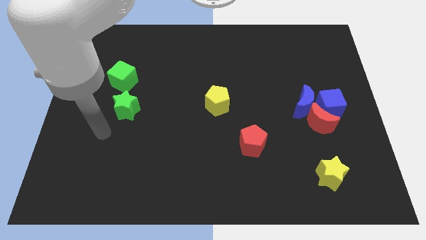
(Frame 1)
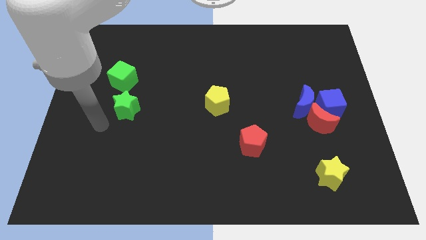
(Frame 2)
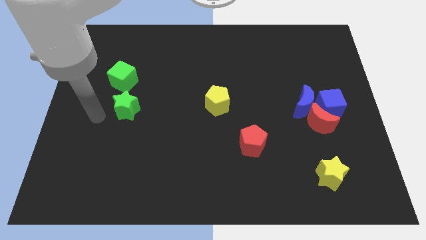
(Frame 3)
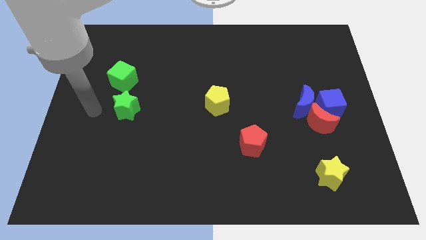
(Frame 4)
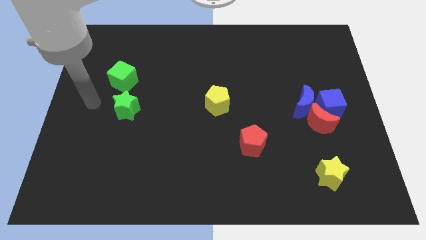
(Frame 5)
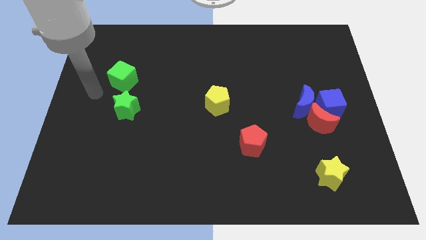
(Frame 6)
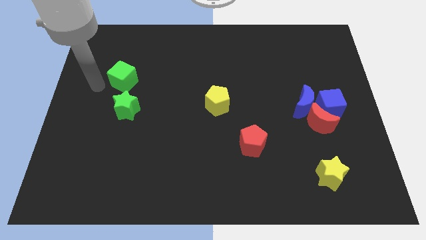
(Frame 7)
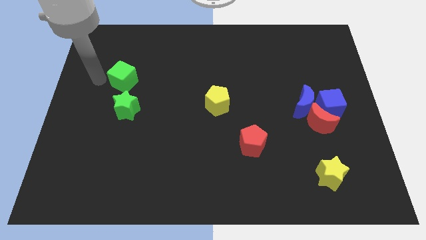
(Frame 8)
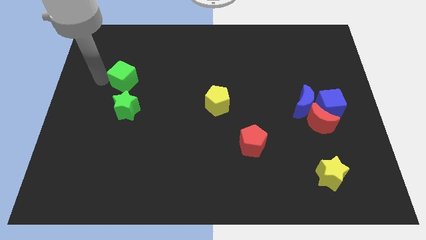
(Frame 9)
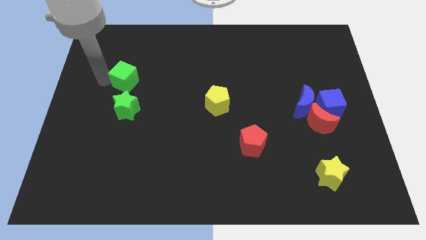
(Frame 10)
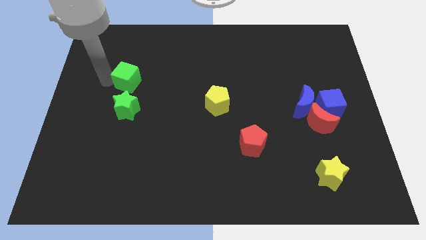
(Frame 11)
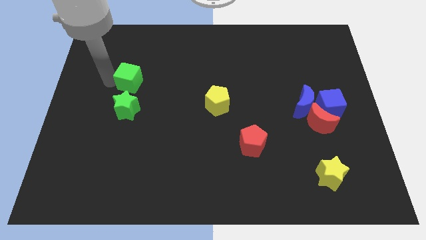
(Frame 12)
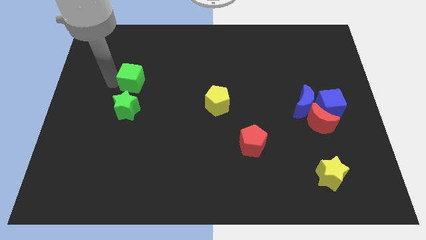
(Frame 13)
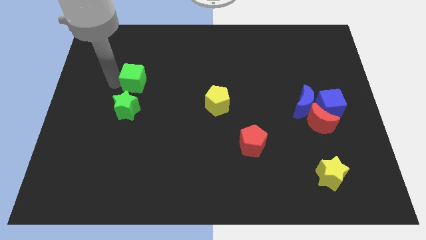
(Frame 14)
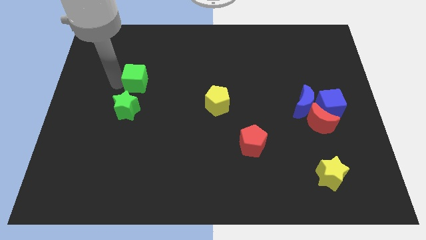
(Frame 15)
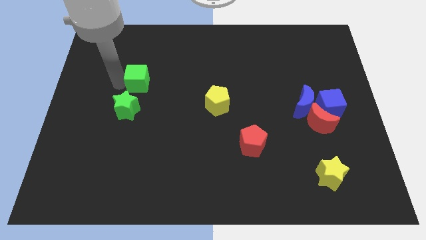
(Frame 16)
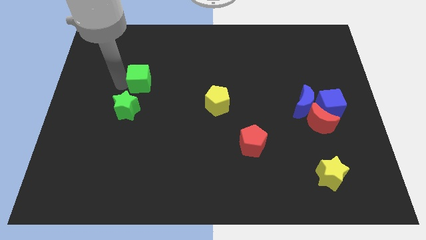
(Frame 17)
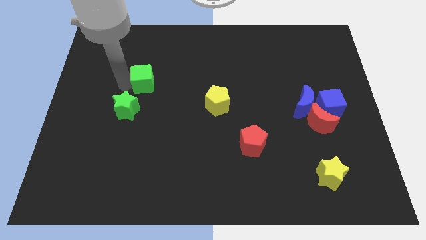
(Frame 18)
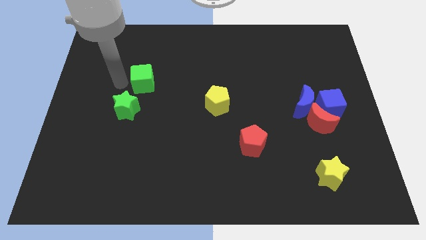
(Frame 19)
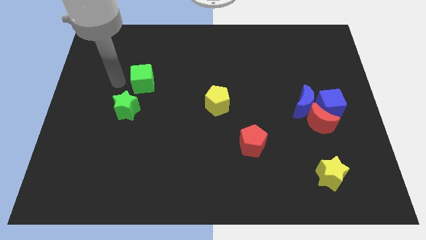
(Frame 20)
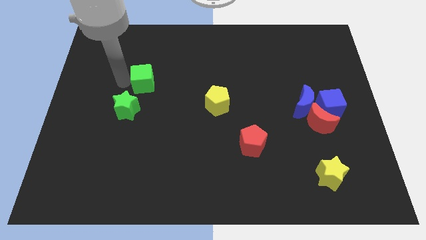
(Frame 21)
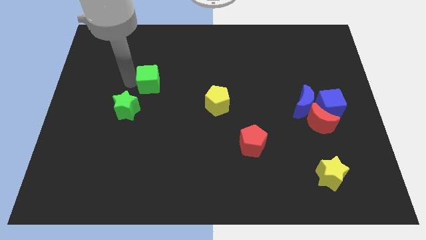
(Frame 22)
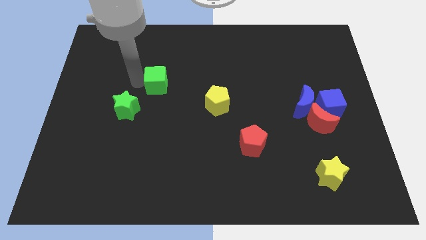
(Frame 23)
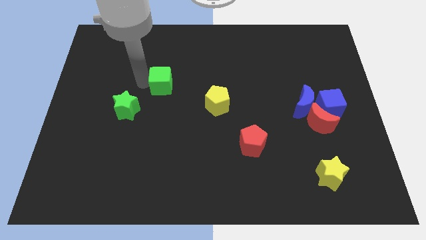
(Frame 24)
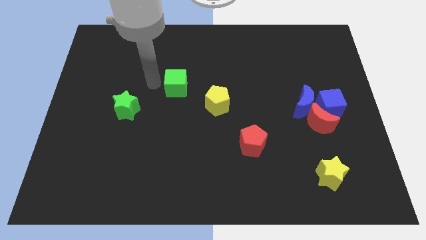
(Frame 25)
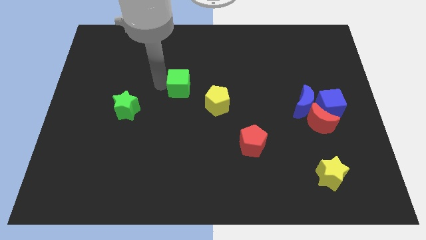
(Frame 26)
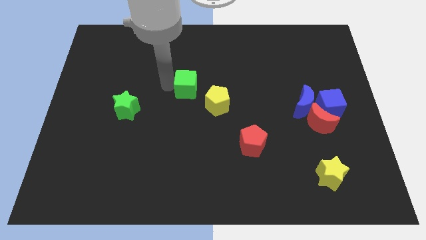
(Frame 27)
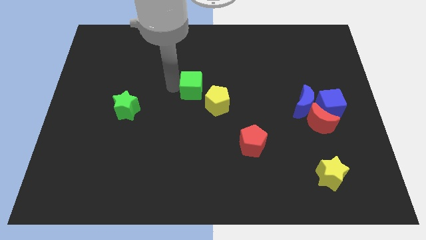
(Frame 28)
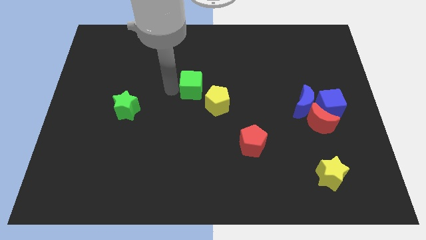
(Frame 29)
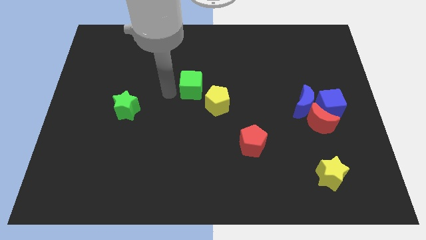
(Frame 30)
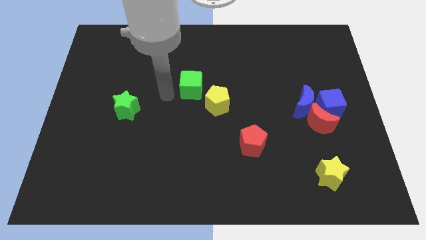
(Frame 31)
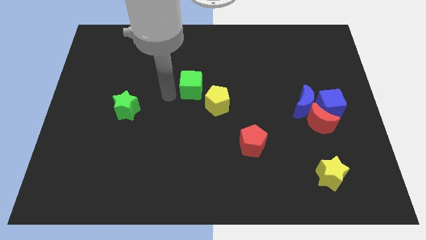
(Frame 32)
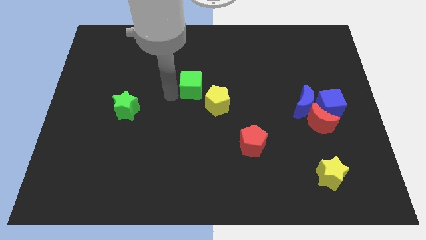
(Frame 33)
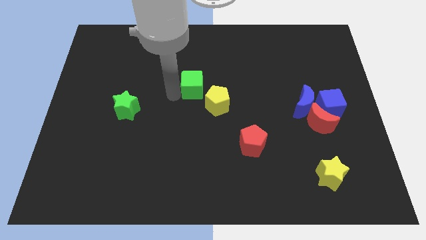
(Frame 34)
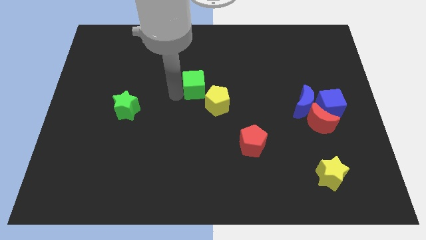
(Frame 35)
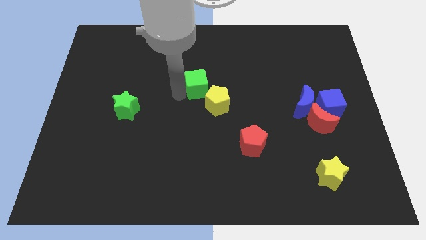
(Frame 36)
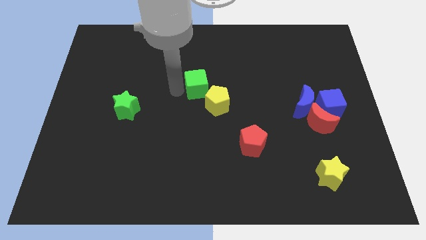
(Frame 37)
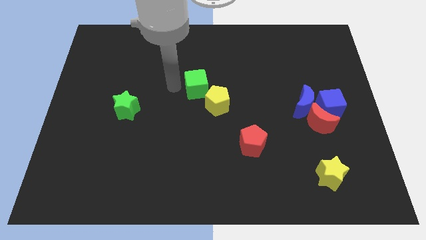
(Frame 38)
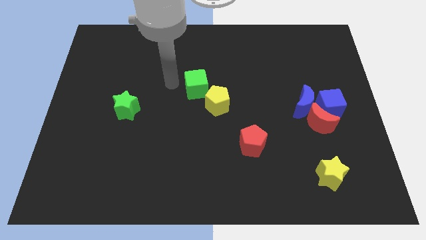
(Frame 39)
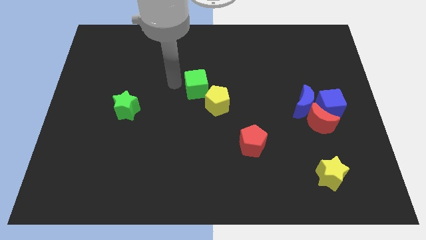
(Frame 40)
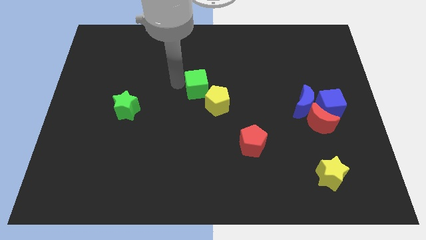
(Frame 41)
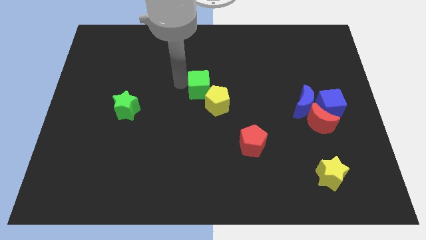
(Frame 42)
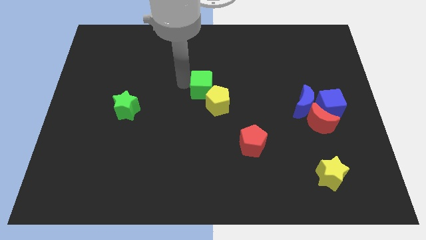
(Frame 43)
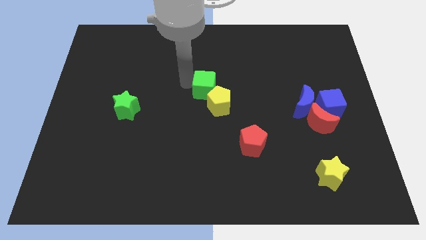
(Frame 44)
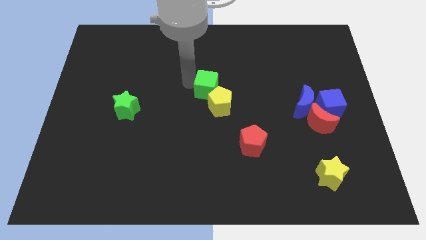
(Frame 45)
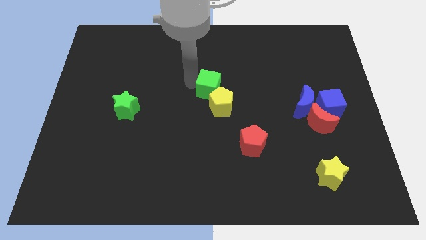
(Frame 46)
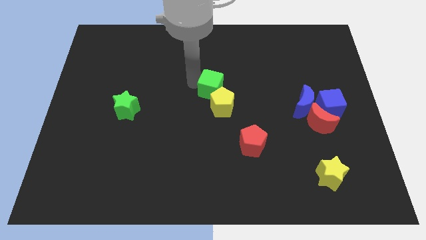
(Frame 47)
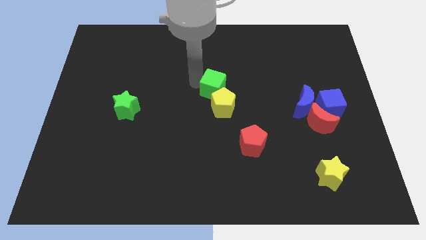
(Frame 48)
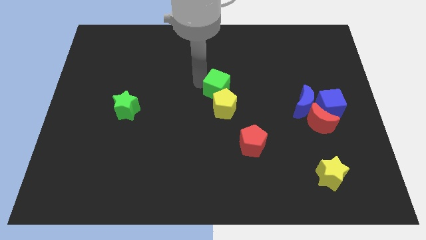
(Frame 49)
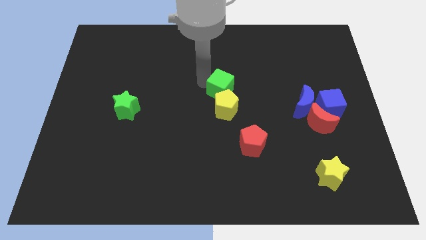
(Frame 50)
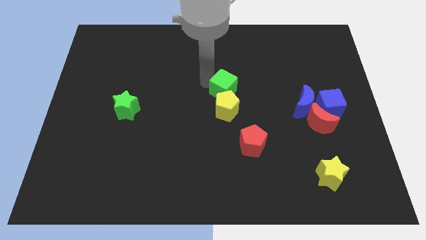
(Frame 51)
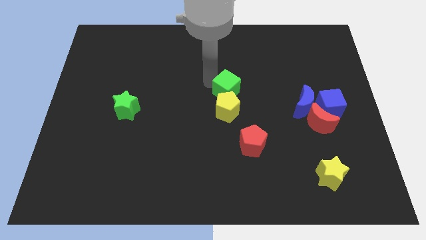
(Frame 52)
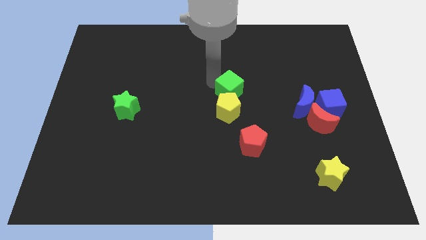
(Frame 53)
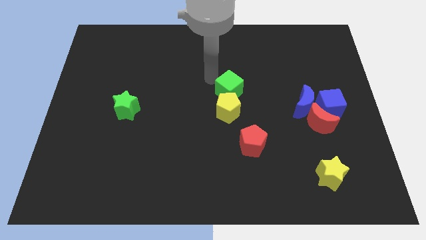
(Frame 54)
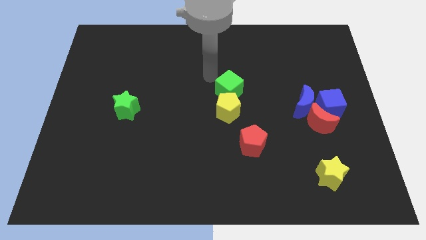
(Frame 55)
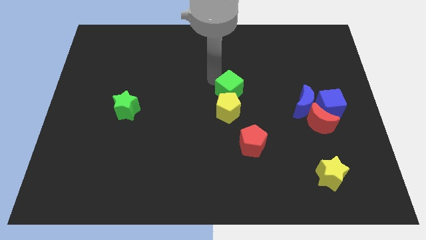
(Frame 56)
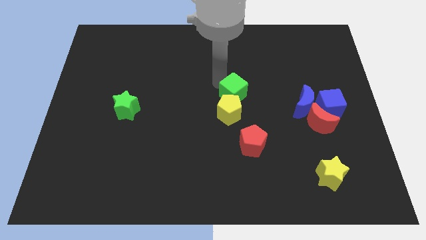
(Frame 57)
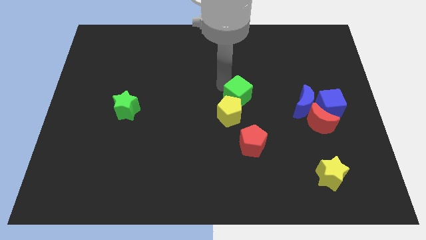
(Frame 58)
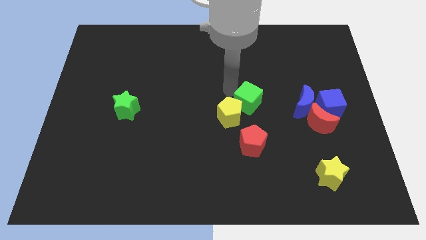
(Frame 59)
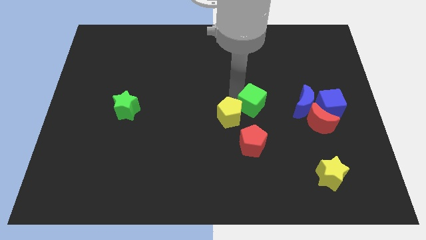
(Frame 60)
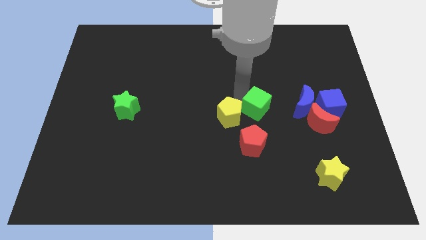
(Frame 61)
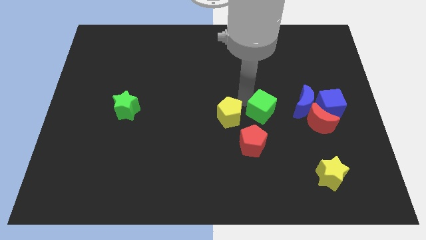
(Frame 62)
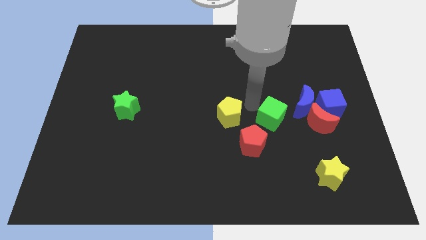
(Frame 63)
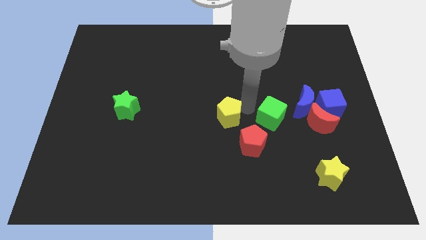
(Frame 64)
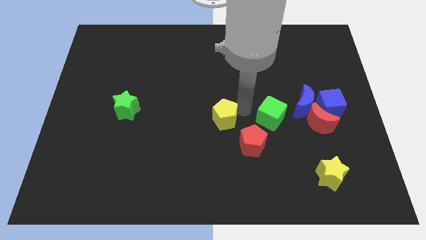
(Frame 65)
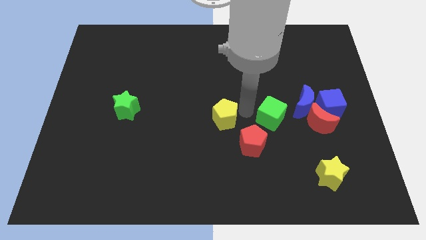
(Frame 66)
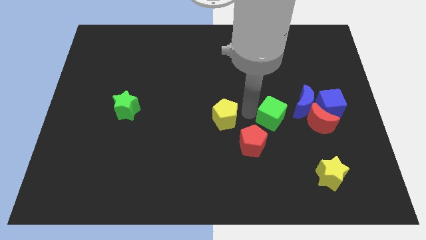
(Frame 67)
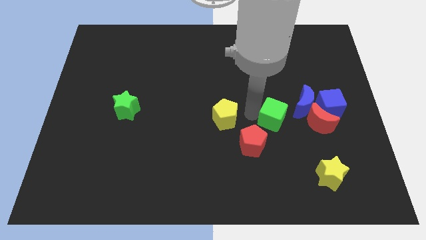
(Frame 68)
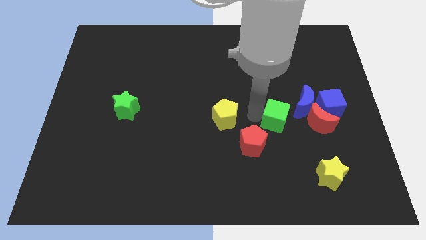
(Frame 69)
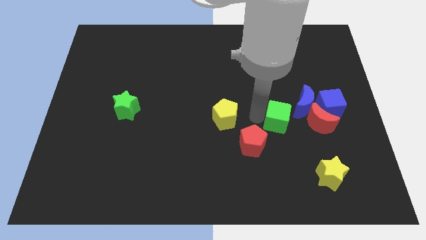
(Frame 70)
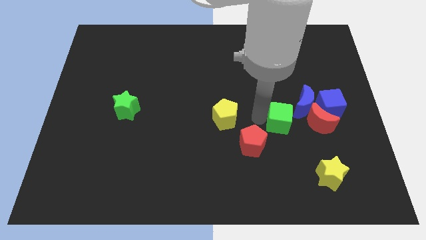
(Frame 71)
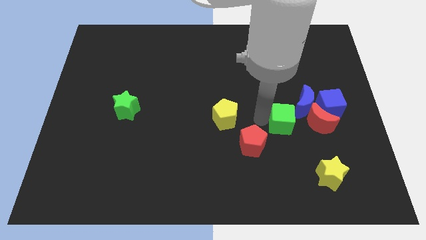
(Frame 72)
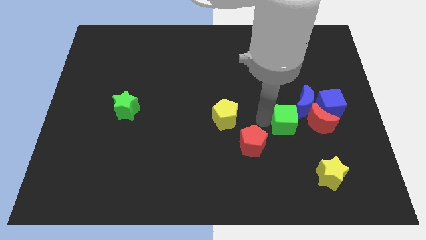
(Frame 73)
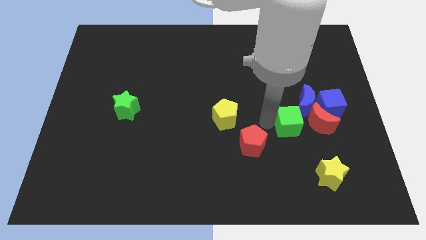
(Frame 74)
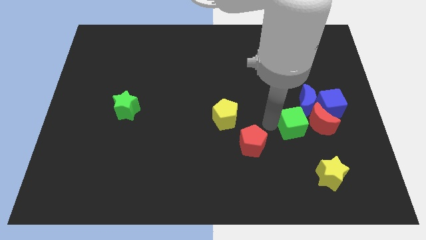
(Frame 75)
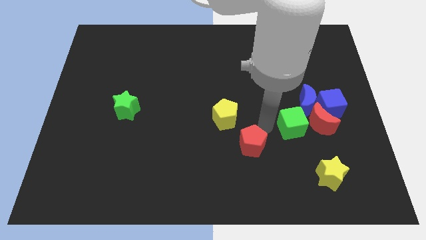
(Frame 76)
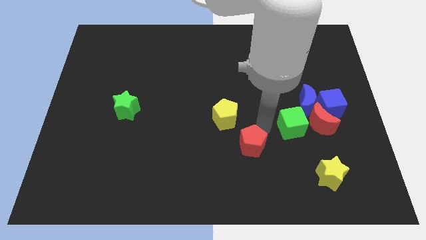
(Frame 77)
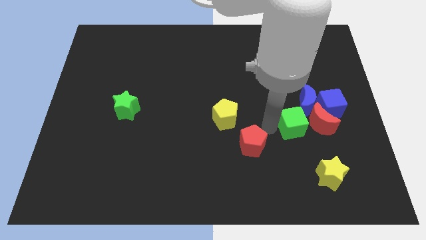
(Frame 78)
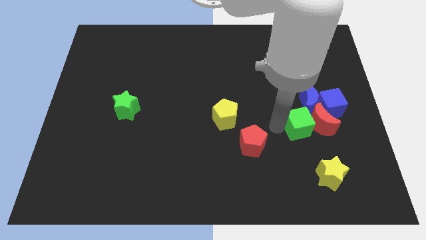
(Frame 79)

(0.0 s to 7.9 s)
put the green cube close to the red moon
